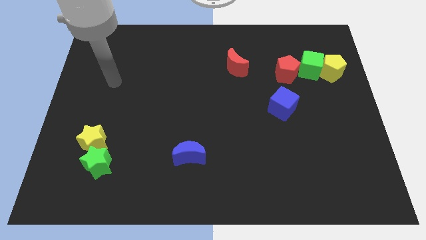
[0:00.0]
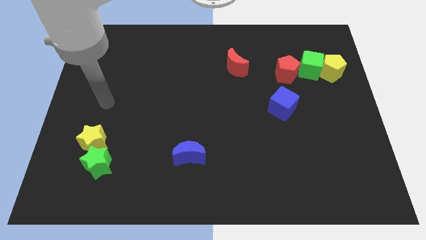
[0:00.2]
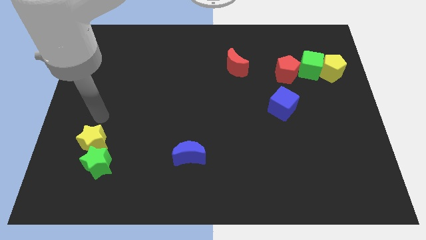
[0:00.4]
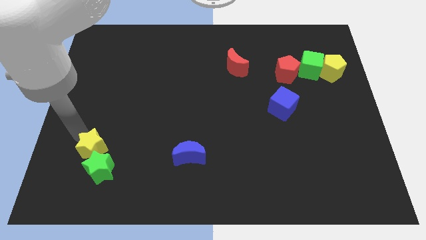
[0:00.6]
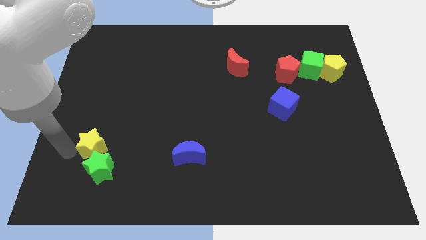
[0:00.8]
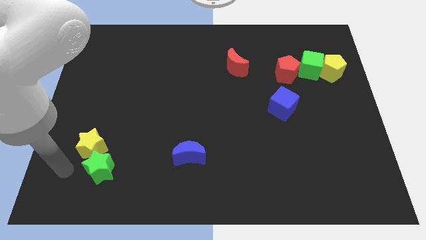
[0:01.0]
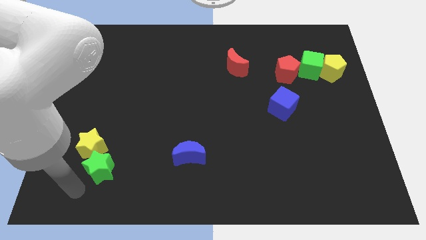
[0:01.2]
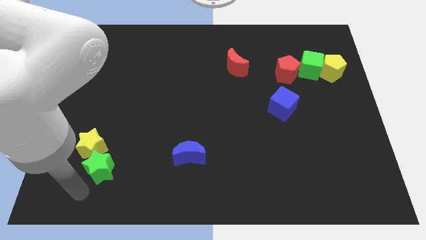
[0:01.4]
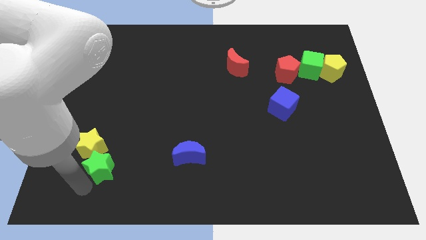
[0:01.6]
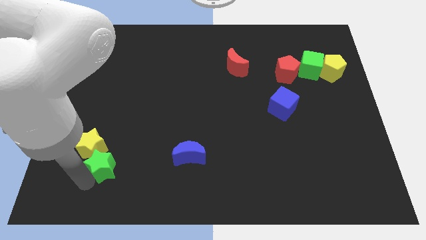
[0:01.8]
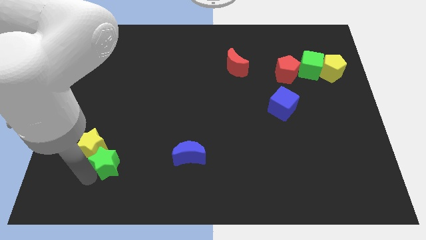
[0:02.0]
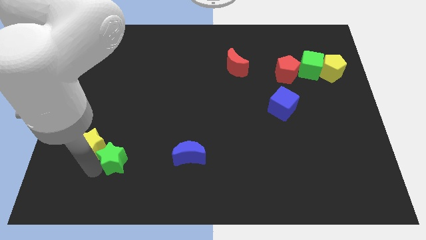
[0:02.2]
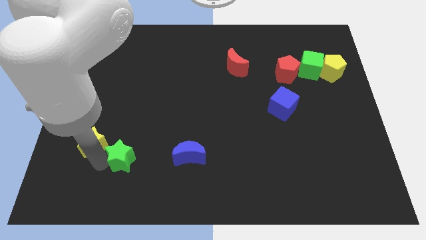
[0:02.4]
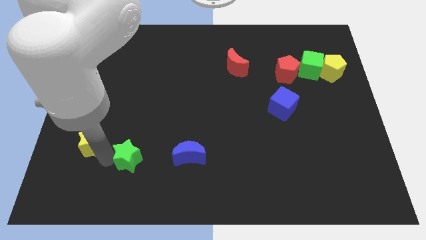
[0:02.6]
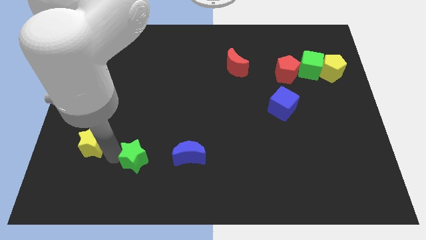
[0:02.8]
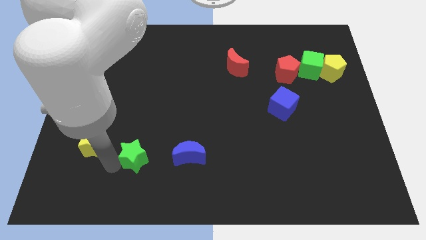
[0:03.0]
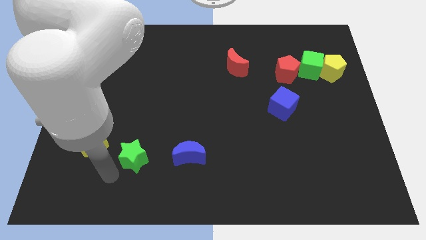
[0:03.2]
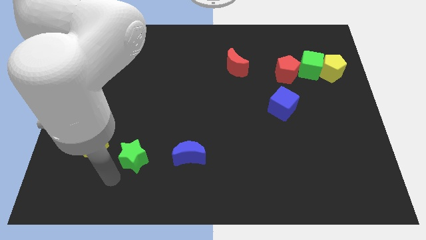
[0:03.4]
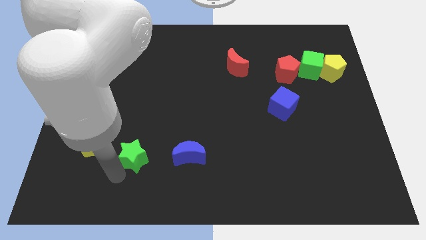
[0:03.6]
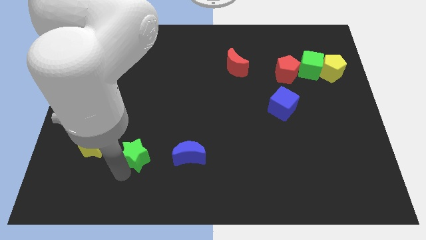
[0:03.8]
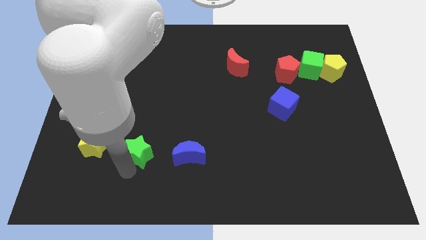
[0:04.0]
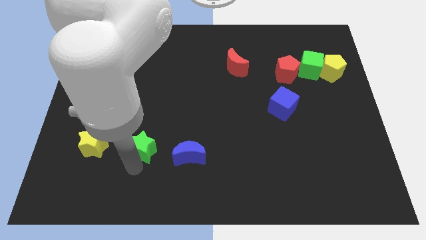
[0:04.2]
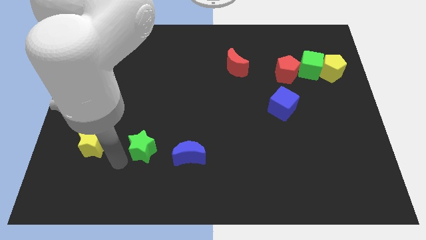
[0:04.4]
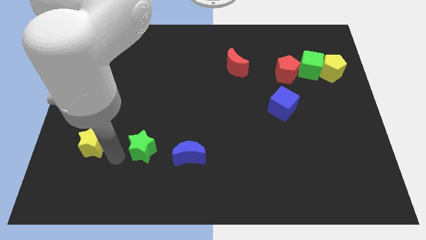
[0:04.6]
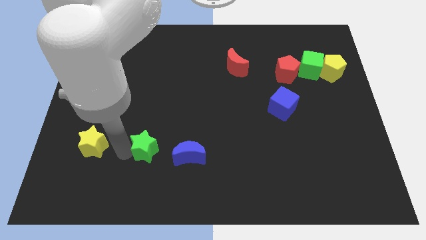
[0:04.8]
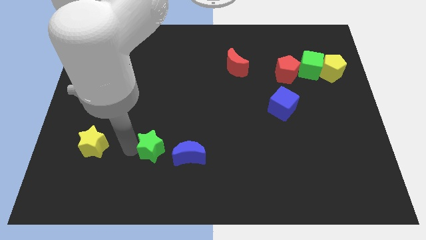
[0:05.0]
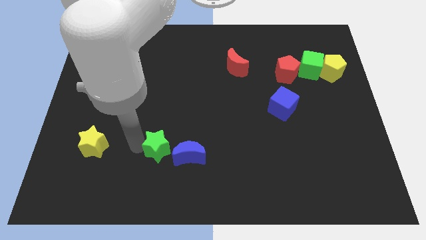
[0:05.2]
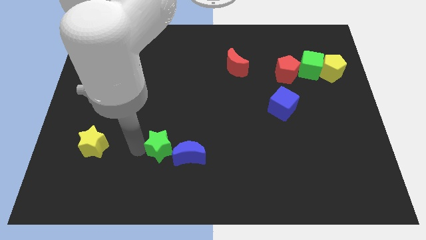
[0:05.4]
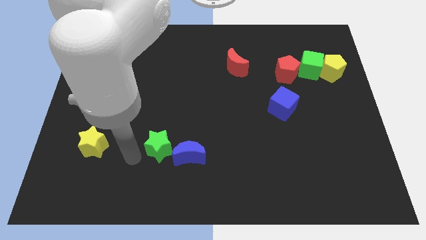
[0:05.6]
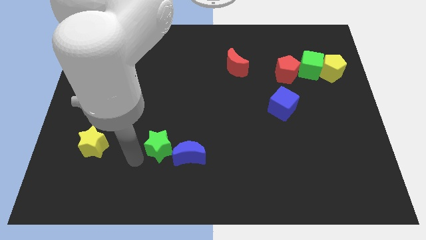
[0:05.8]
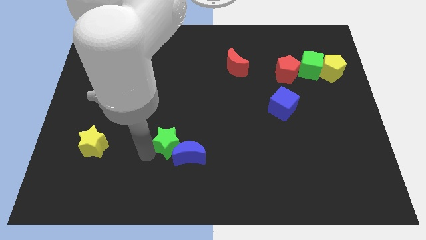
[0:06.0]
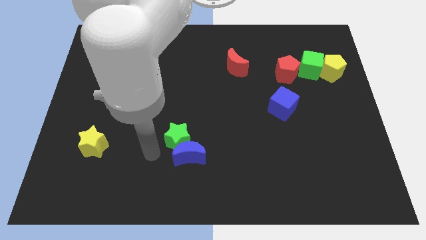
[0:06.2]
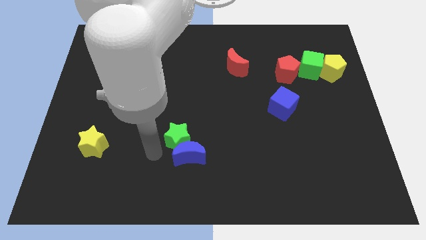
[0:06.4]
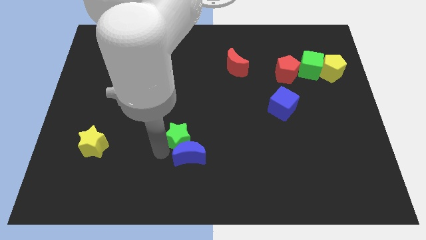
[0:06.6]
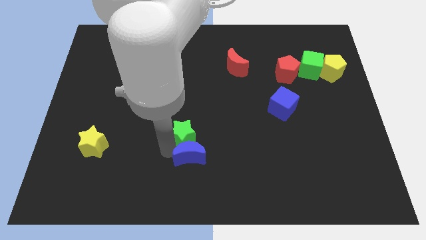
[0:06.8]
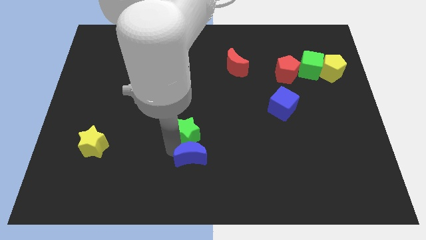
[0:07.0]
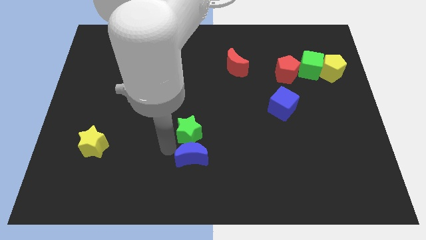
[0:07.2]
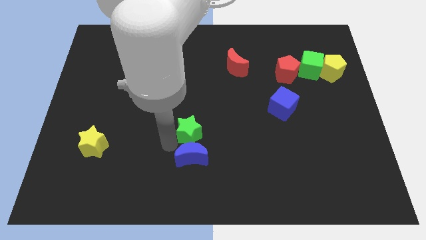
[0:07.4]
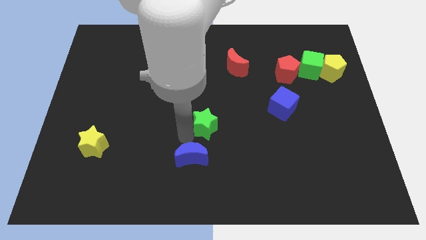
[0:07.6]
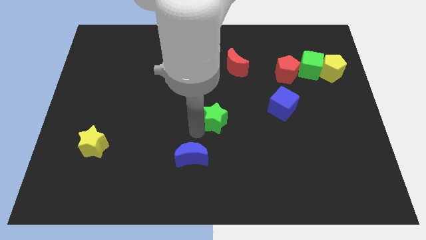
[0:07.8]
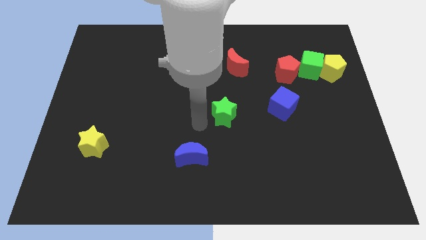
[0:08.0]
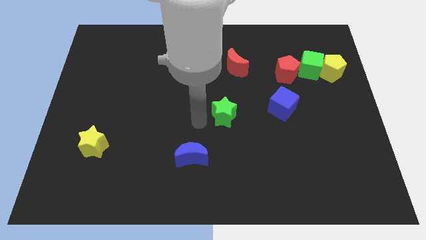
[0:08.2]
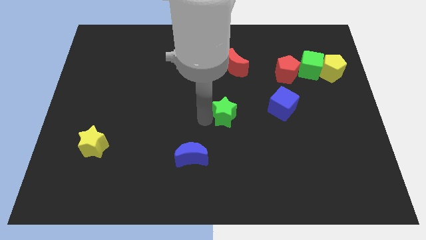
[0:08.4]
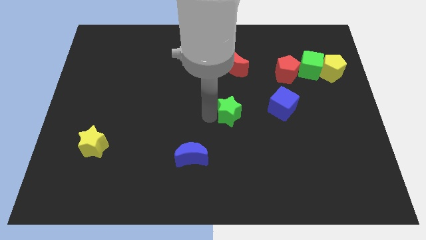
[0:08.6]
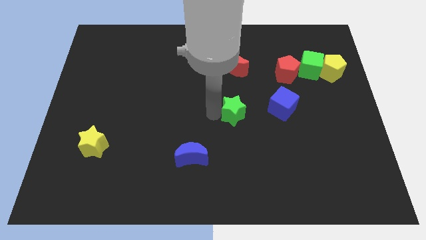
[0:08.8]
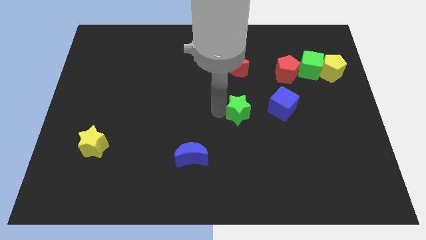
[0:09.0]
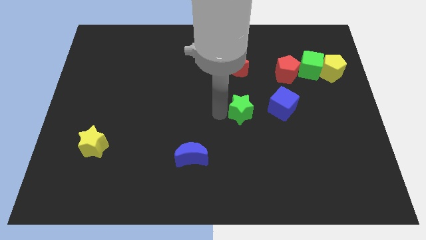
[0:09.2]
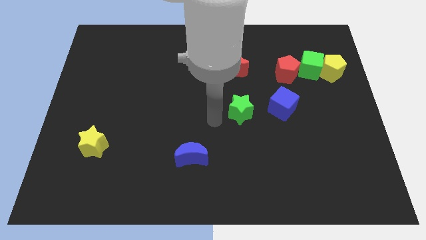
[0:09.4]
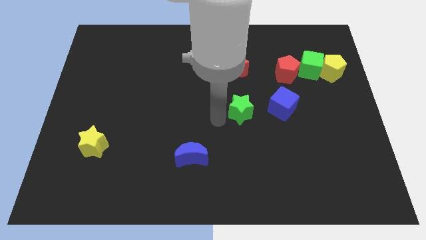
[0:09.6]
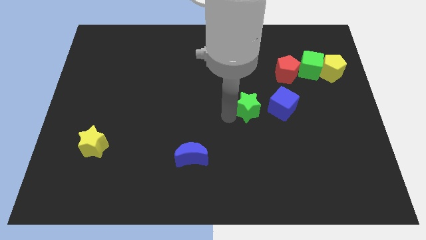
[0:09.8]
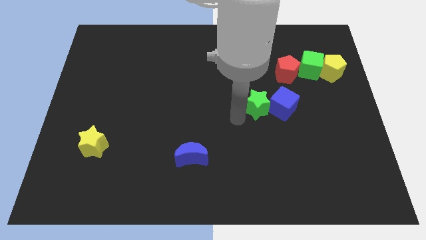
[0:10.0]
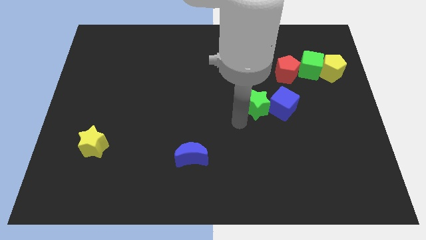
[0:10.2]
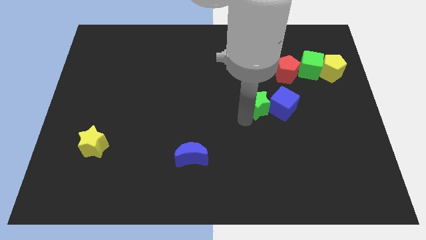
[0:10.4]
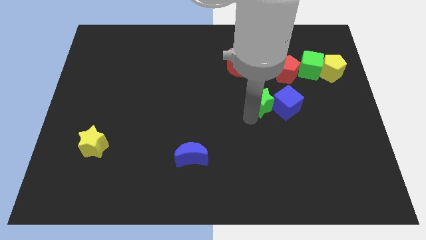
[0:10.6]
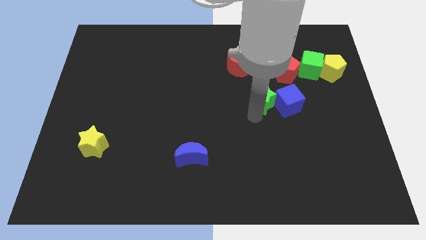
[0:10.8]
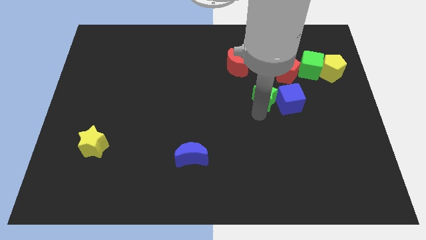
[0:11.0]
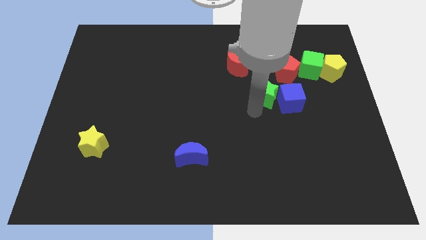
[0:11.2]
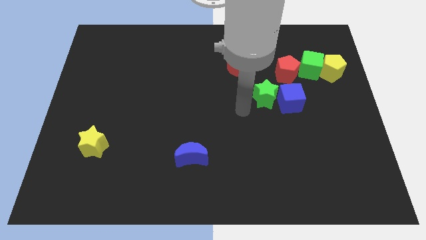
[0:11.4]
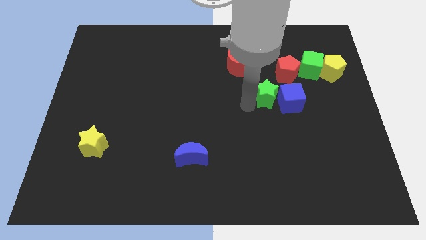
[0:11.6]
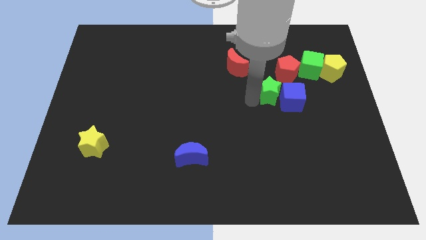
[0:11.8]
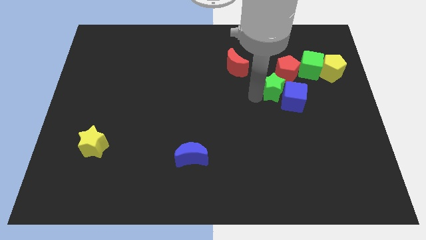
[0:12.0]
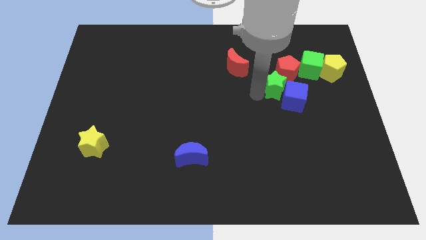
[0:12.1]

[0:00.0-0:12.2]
move the green star to the bottom left of the green cube

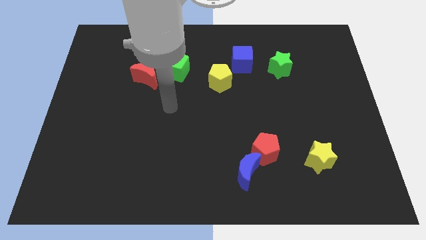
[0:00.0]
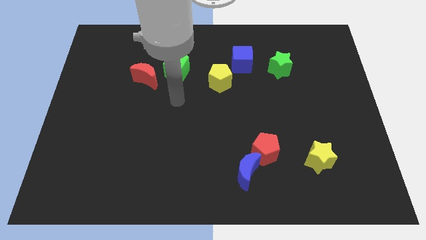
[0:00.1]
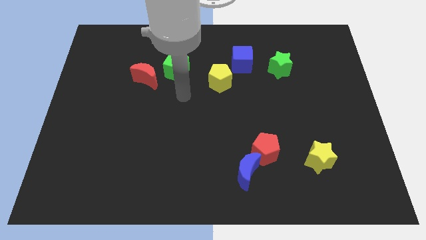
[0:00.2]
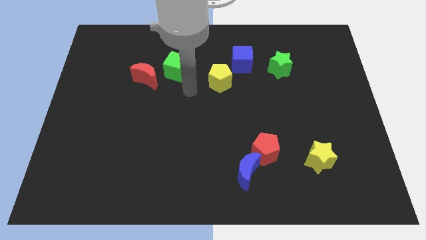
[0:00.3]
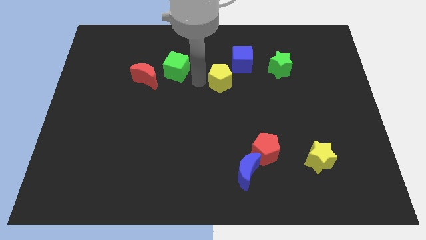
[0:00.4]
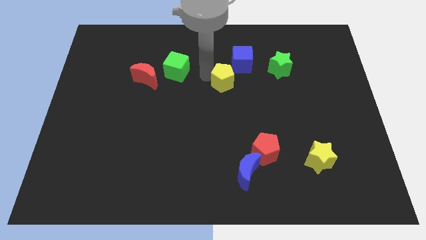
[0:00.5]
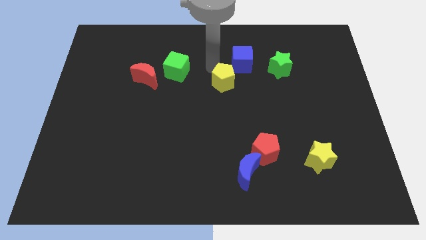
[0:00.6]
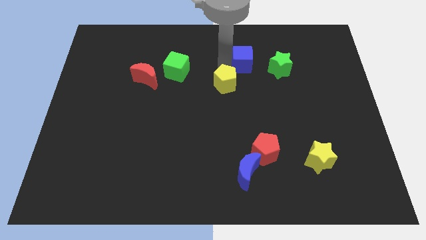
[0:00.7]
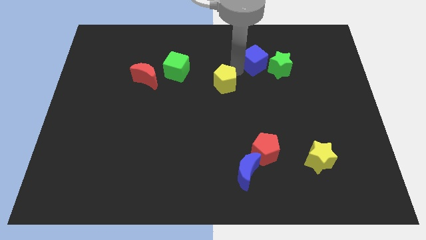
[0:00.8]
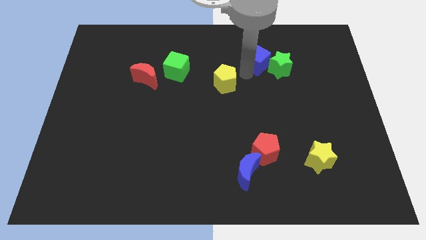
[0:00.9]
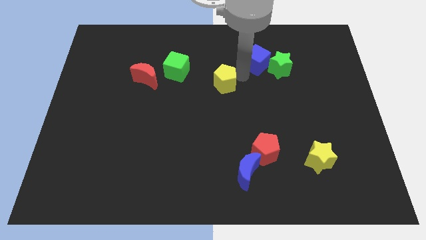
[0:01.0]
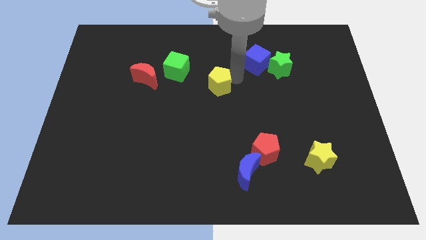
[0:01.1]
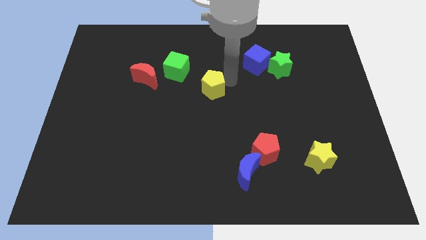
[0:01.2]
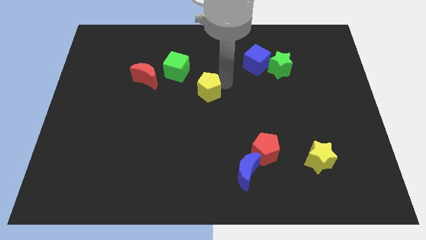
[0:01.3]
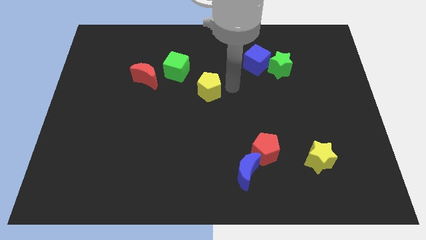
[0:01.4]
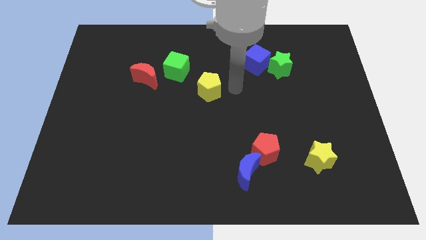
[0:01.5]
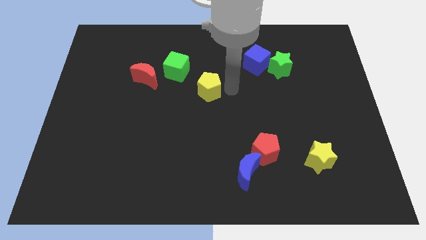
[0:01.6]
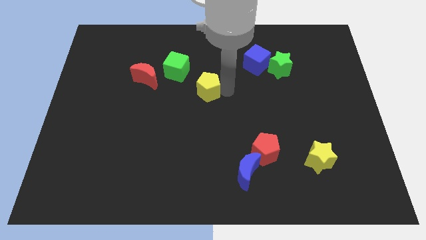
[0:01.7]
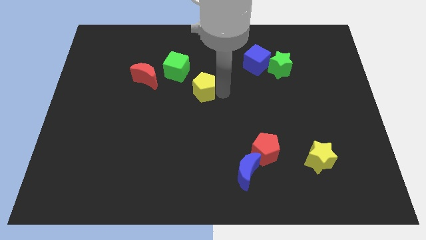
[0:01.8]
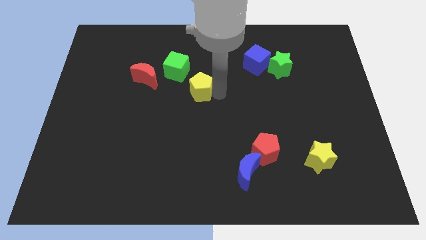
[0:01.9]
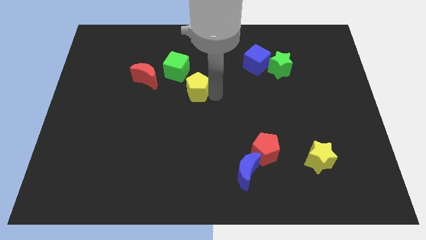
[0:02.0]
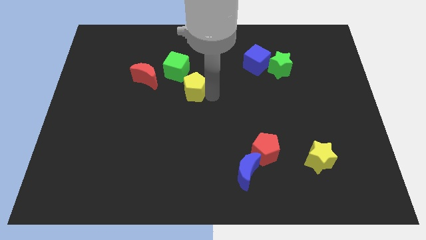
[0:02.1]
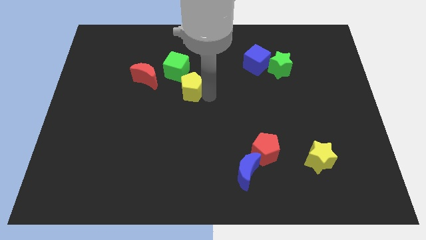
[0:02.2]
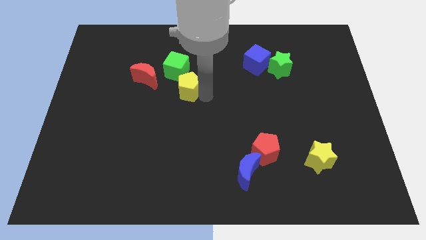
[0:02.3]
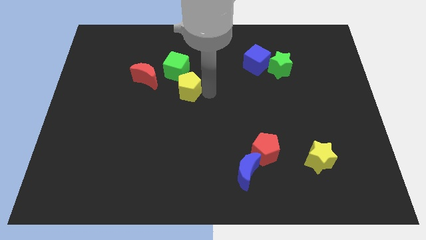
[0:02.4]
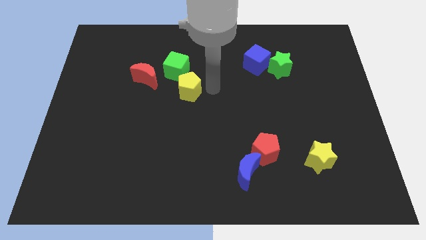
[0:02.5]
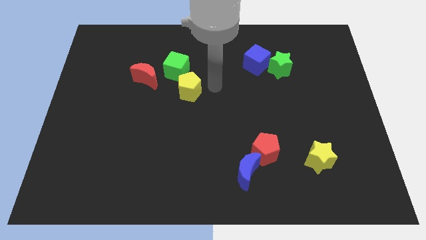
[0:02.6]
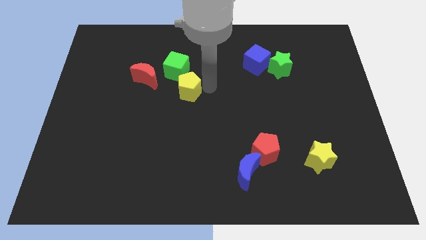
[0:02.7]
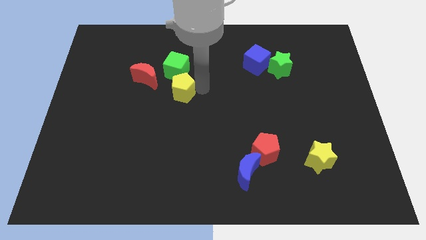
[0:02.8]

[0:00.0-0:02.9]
move the yellow pentagon diagonally down and to the right of the red moon
